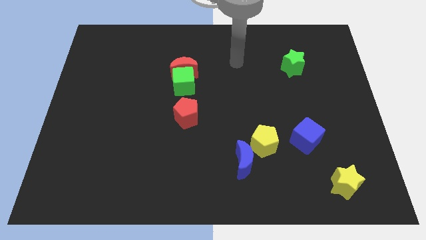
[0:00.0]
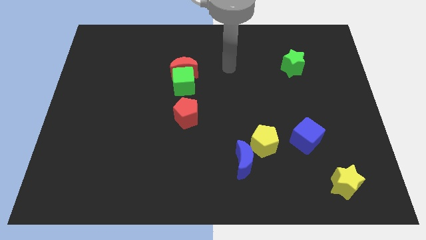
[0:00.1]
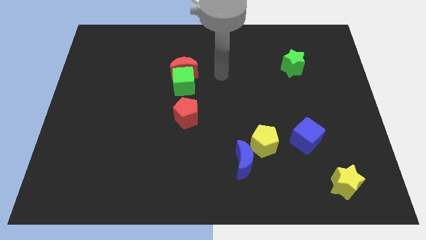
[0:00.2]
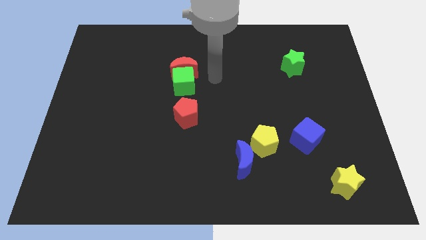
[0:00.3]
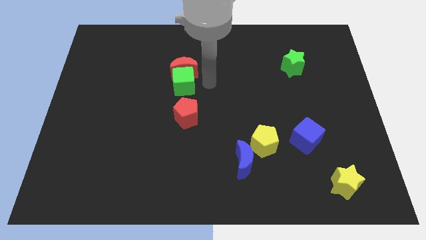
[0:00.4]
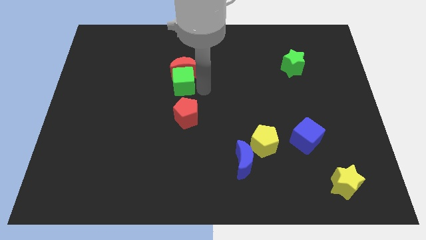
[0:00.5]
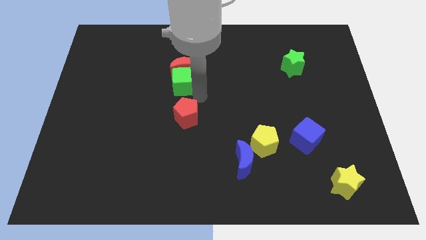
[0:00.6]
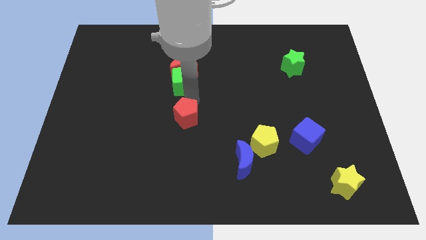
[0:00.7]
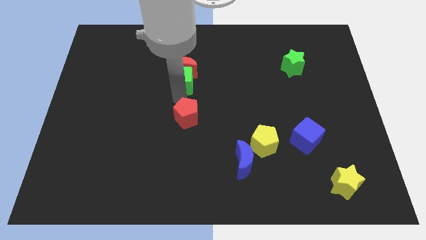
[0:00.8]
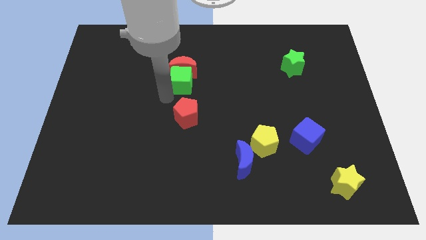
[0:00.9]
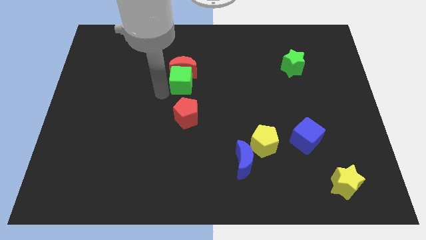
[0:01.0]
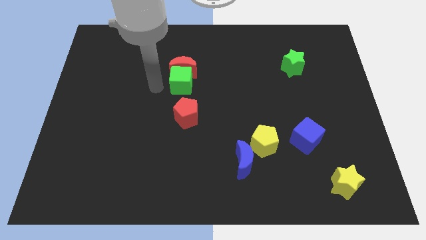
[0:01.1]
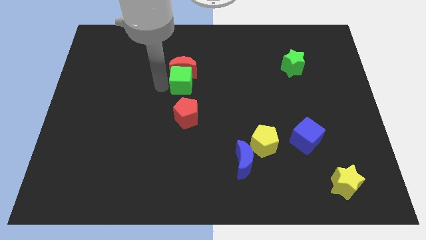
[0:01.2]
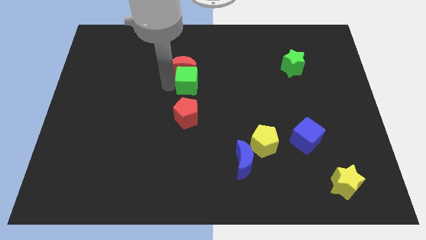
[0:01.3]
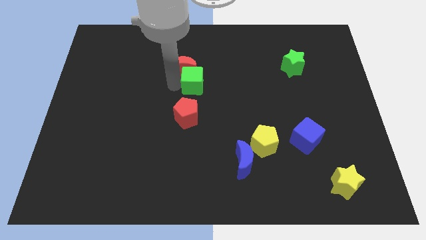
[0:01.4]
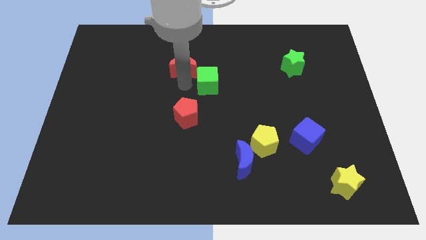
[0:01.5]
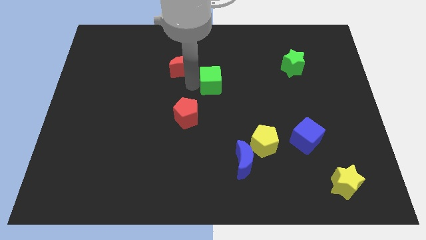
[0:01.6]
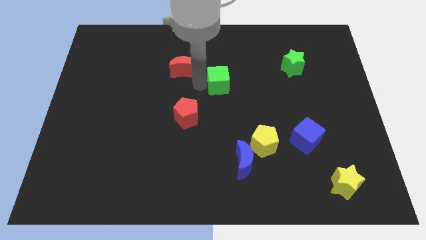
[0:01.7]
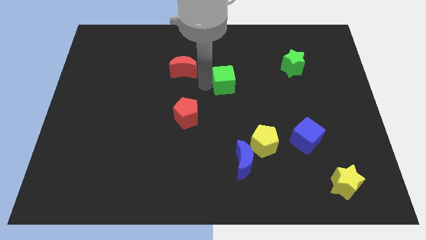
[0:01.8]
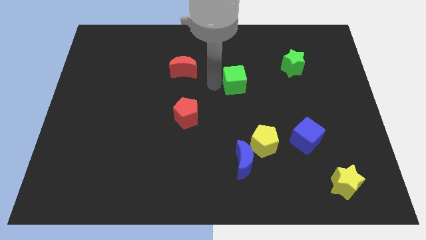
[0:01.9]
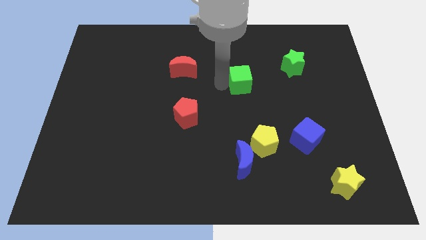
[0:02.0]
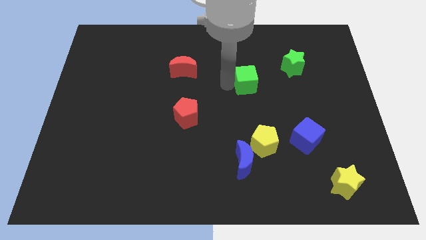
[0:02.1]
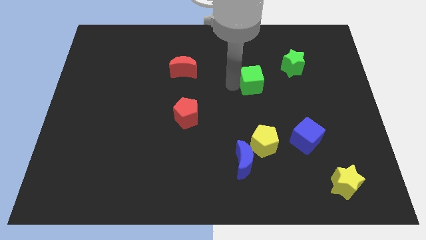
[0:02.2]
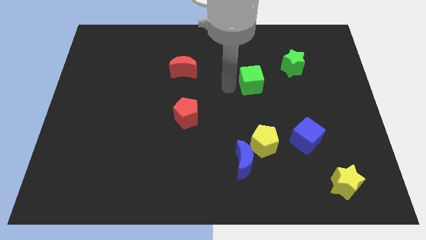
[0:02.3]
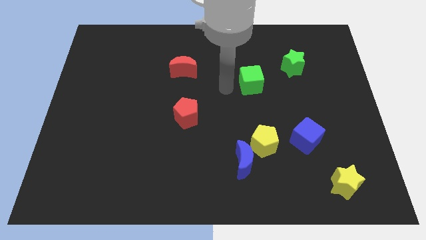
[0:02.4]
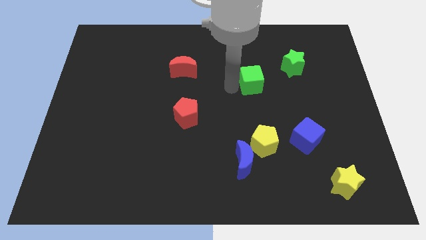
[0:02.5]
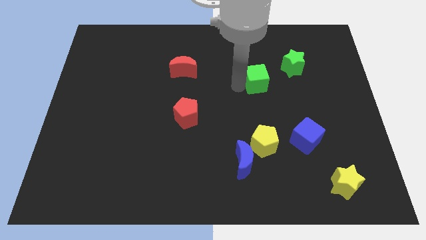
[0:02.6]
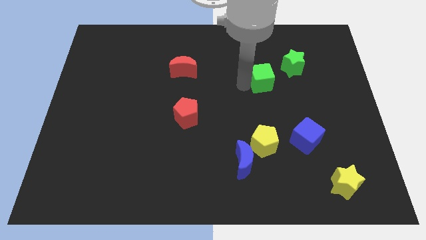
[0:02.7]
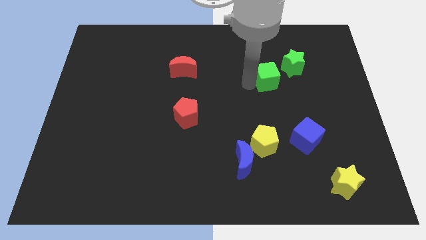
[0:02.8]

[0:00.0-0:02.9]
push the green cube to the right

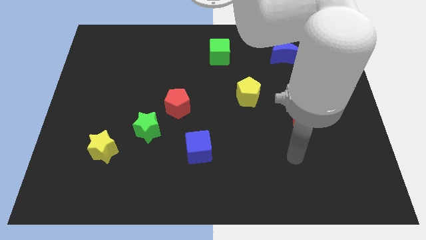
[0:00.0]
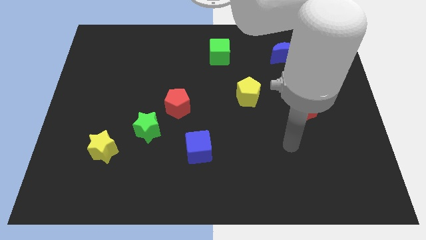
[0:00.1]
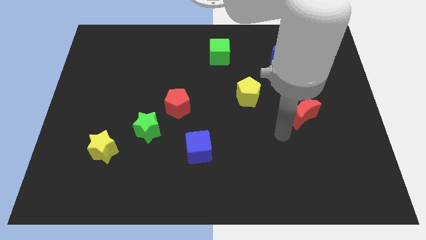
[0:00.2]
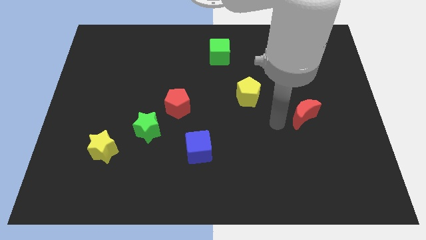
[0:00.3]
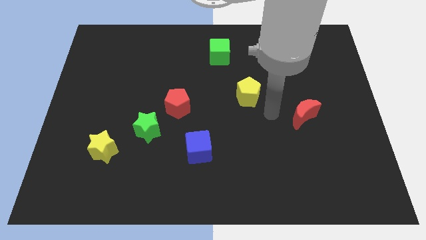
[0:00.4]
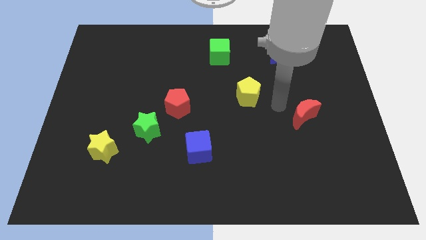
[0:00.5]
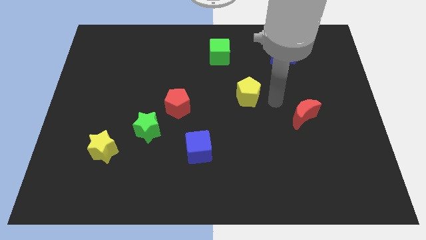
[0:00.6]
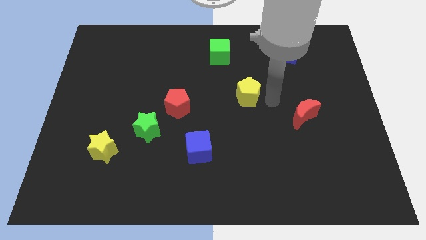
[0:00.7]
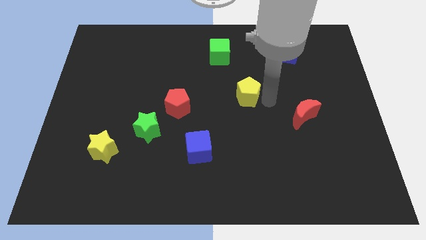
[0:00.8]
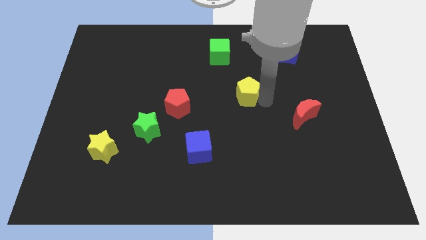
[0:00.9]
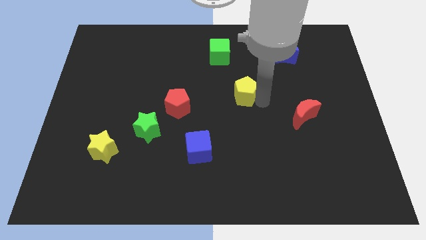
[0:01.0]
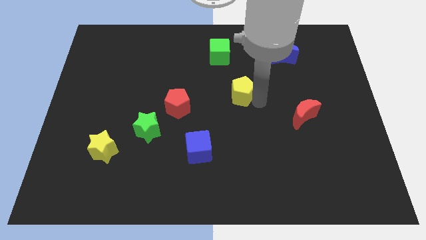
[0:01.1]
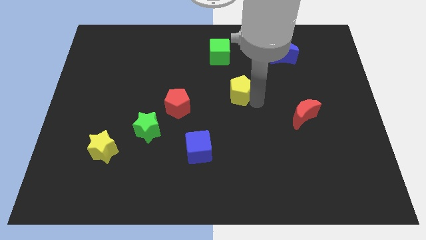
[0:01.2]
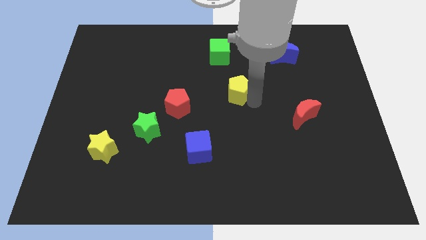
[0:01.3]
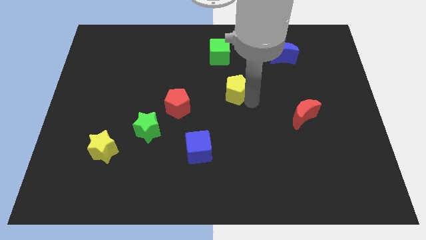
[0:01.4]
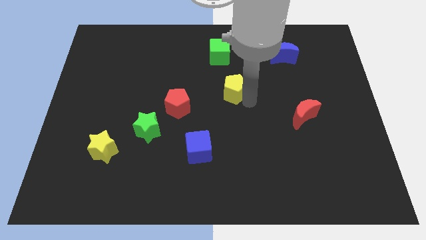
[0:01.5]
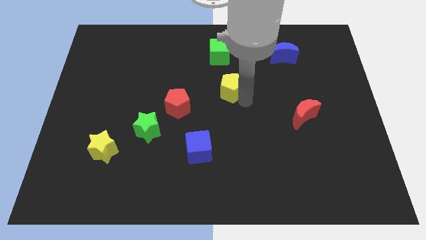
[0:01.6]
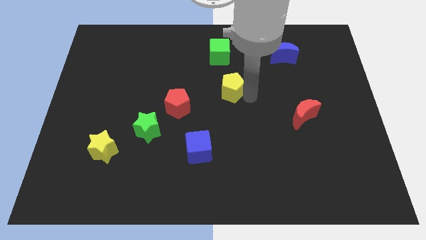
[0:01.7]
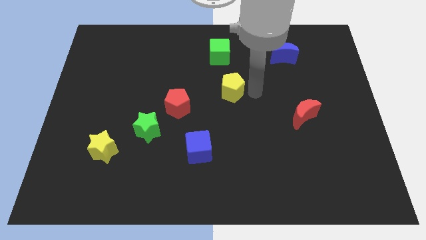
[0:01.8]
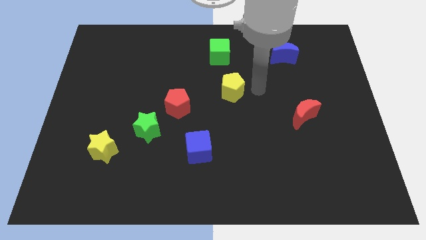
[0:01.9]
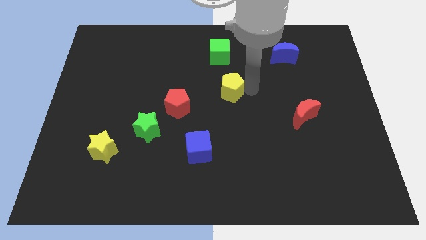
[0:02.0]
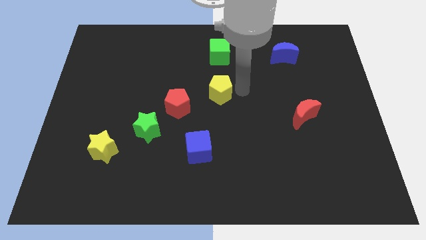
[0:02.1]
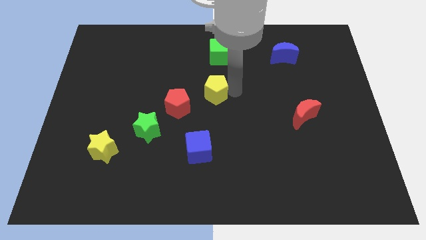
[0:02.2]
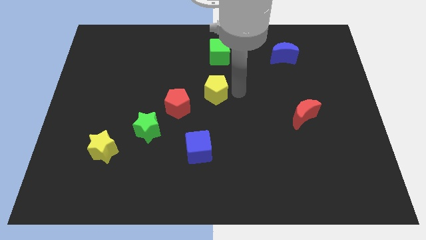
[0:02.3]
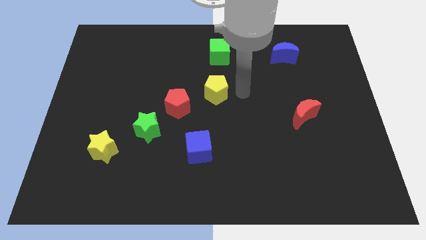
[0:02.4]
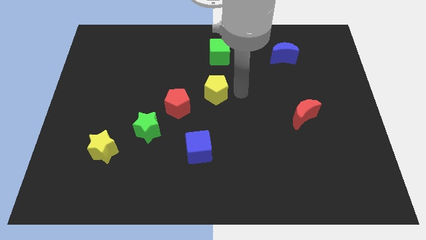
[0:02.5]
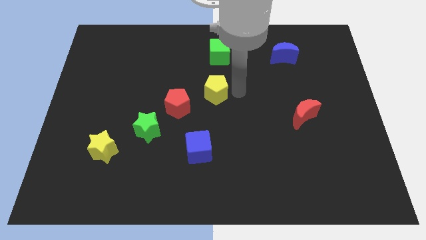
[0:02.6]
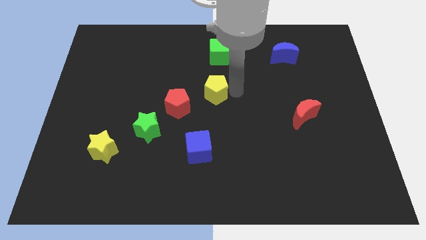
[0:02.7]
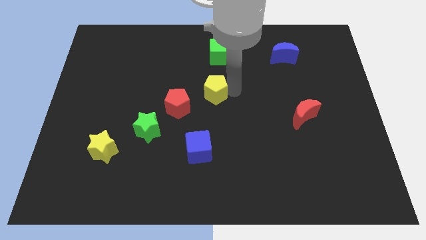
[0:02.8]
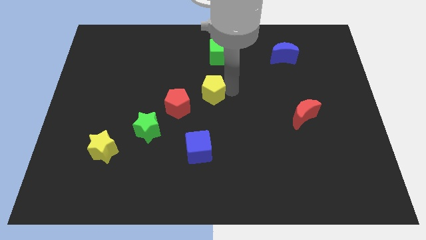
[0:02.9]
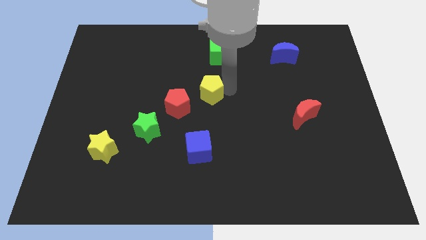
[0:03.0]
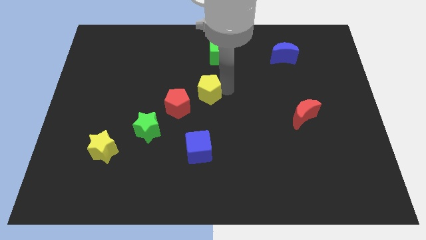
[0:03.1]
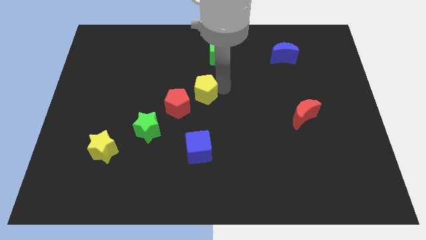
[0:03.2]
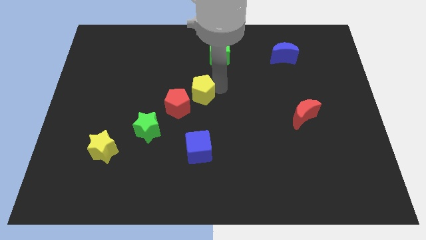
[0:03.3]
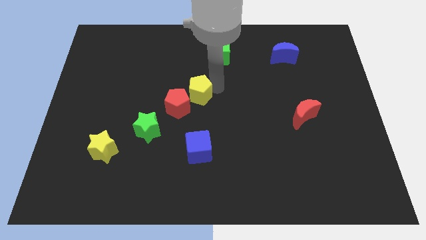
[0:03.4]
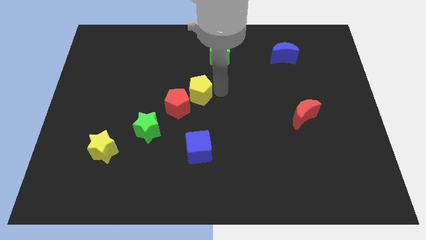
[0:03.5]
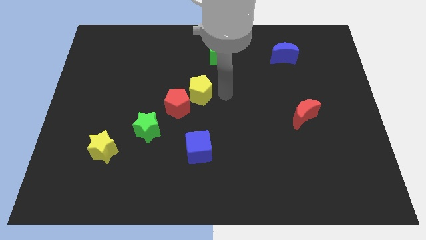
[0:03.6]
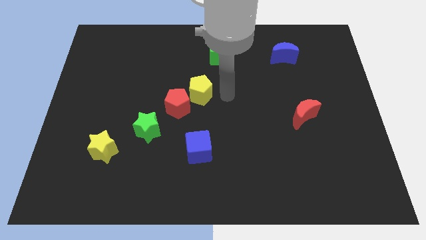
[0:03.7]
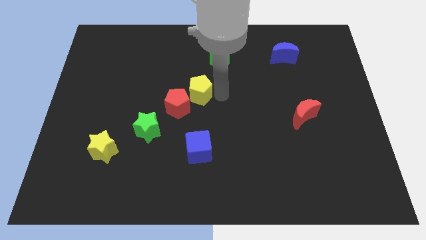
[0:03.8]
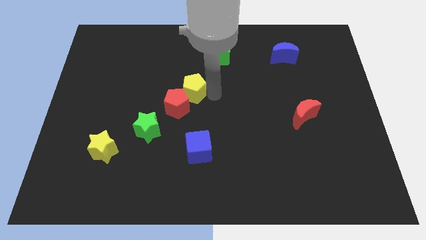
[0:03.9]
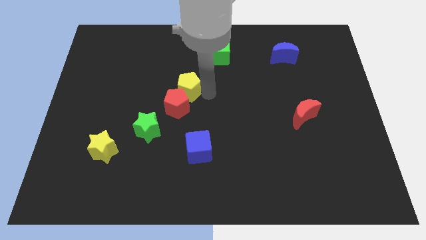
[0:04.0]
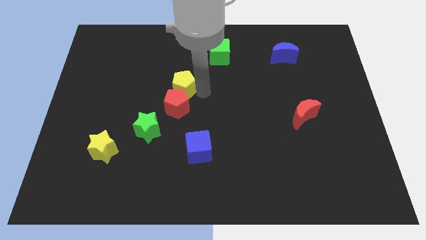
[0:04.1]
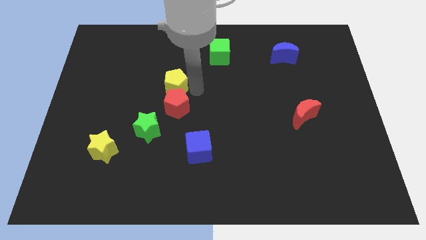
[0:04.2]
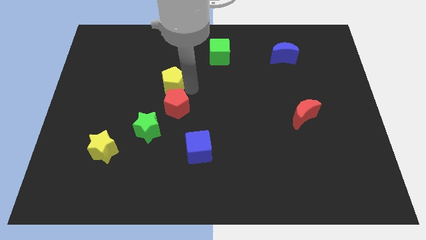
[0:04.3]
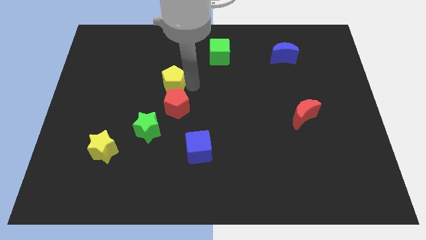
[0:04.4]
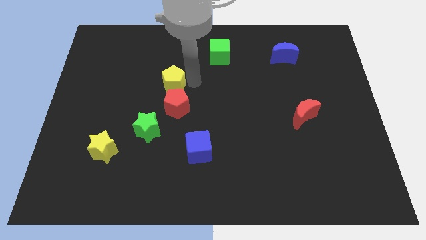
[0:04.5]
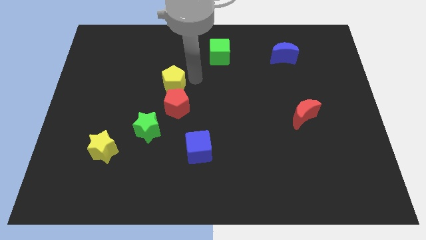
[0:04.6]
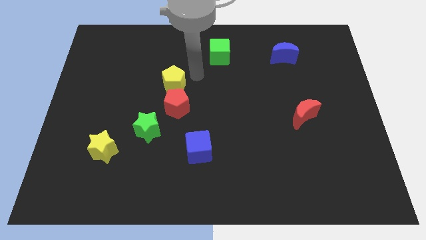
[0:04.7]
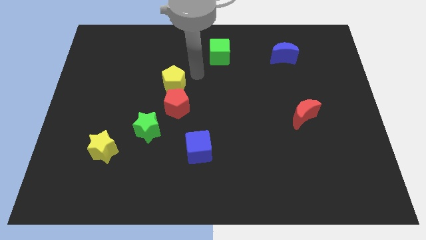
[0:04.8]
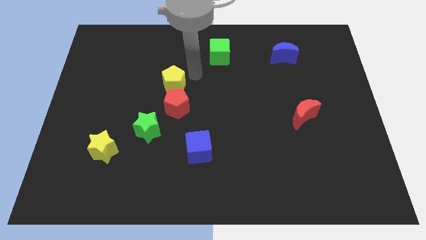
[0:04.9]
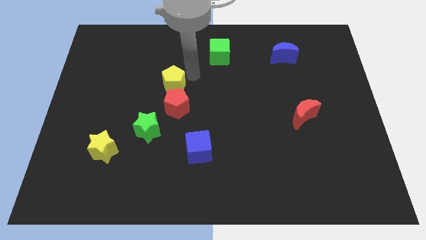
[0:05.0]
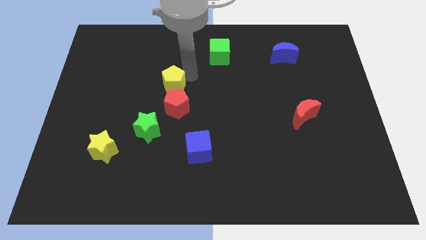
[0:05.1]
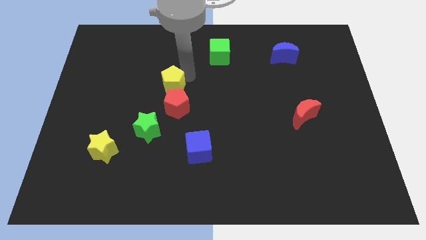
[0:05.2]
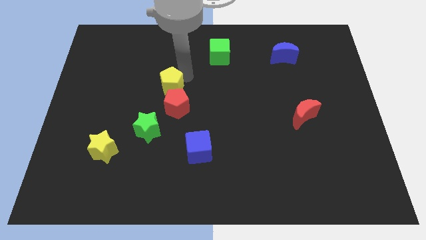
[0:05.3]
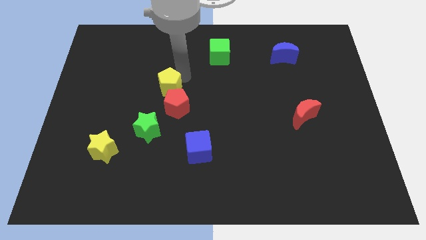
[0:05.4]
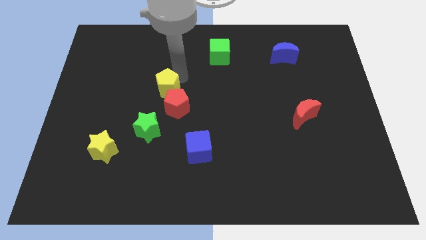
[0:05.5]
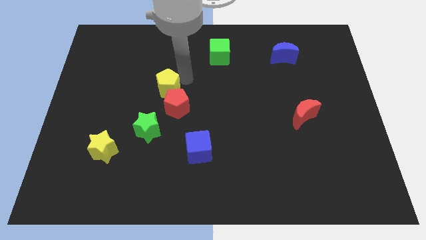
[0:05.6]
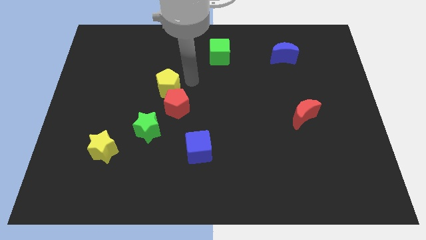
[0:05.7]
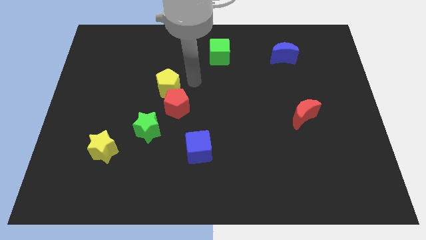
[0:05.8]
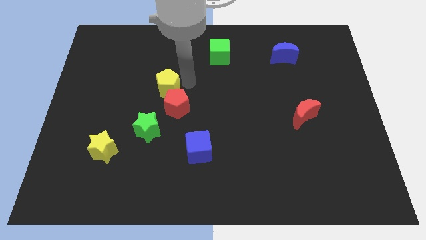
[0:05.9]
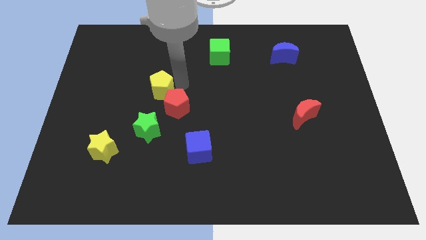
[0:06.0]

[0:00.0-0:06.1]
move the yellow pentagon to the left
